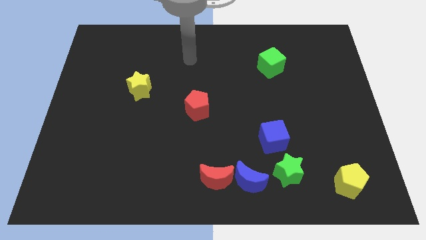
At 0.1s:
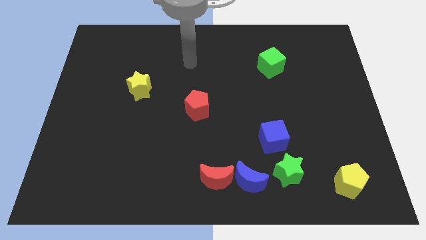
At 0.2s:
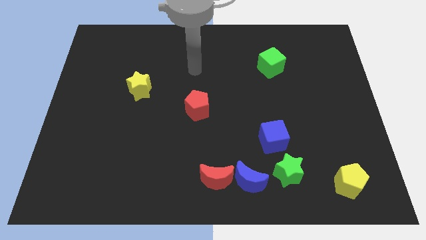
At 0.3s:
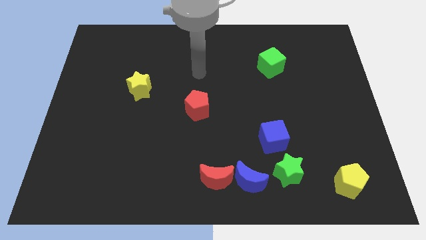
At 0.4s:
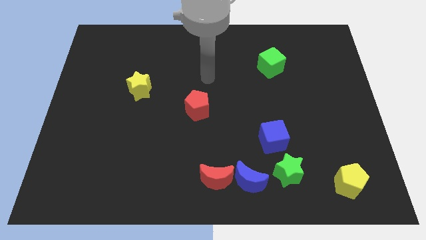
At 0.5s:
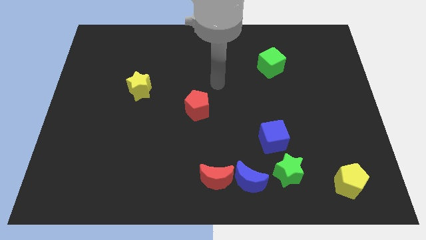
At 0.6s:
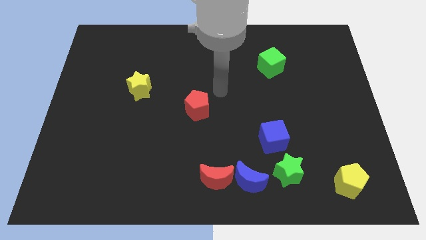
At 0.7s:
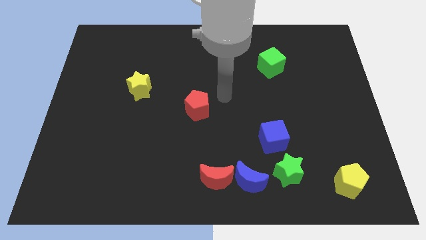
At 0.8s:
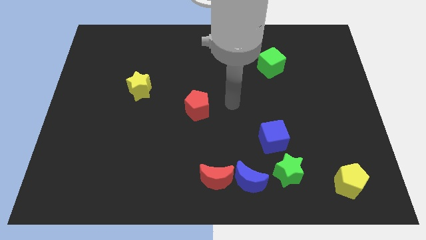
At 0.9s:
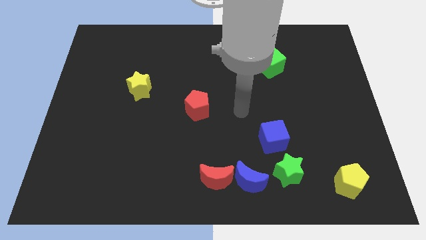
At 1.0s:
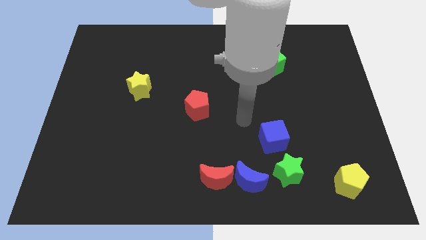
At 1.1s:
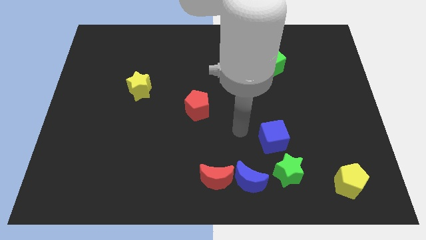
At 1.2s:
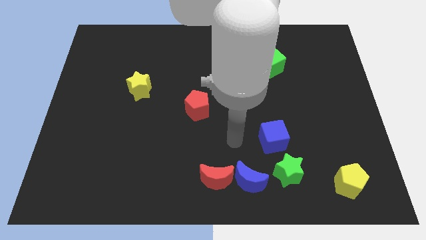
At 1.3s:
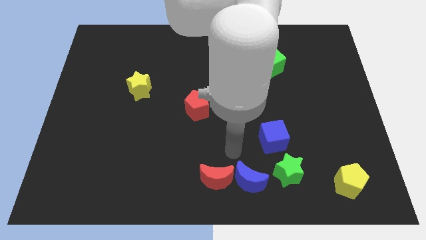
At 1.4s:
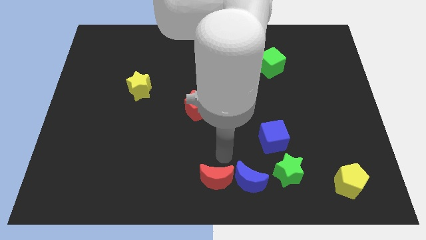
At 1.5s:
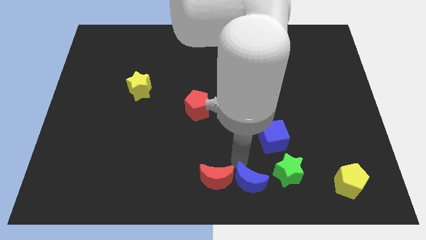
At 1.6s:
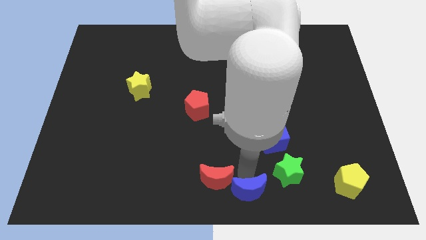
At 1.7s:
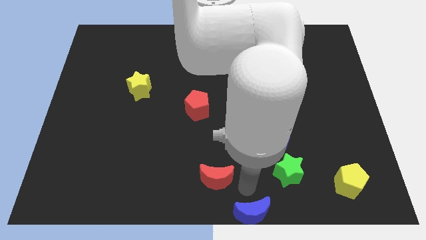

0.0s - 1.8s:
separate the red moon from the blue moon

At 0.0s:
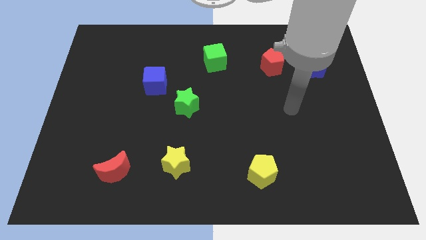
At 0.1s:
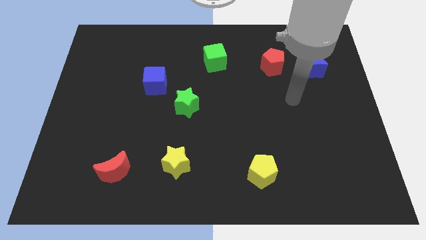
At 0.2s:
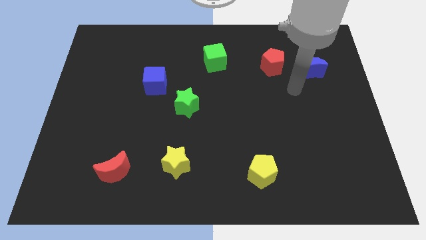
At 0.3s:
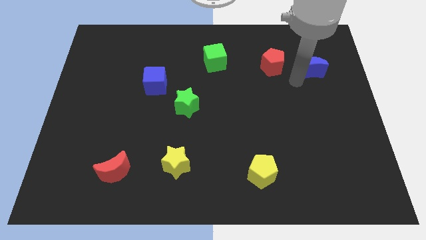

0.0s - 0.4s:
pull the red pentagon apart from the blue moon

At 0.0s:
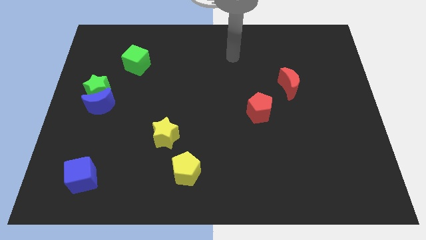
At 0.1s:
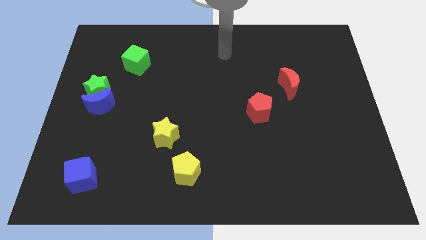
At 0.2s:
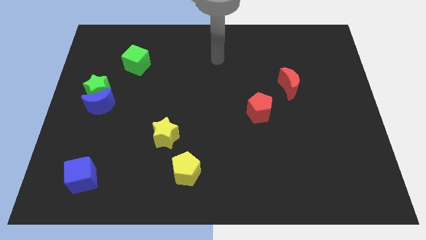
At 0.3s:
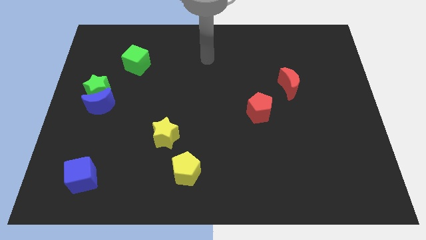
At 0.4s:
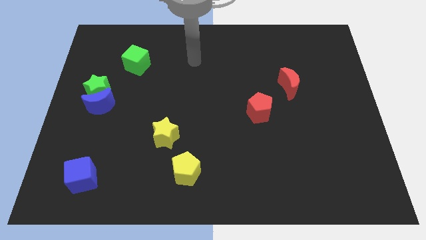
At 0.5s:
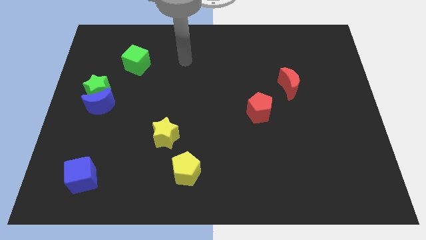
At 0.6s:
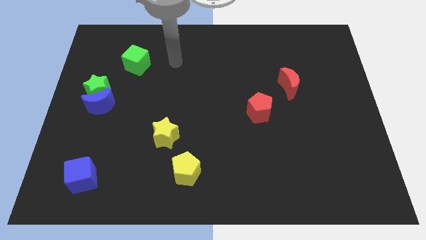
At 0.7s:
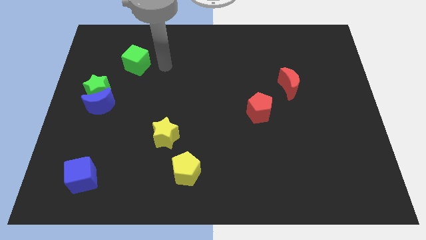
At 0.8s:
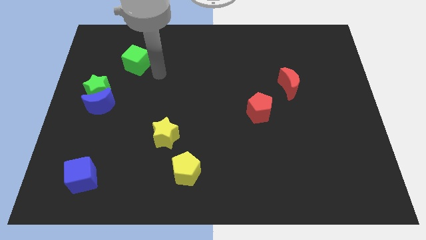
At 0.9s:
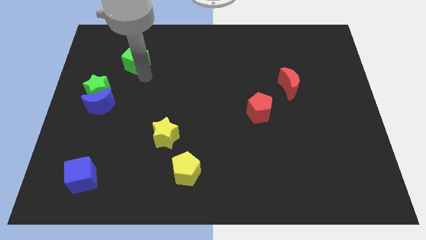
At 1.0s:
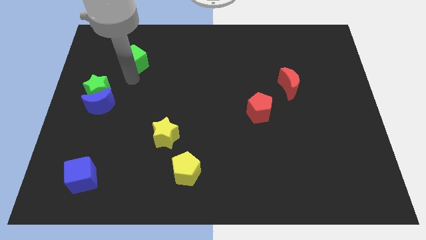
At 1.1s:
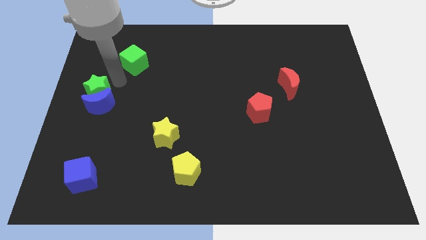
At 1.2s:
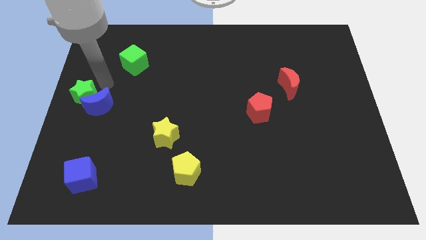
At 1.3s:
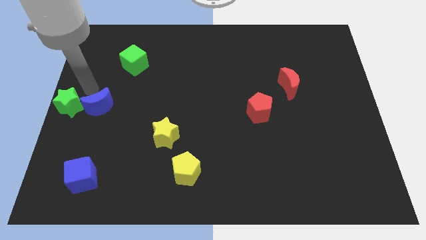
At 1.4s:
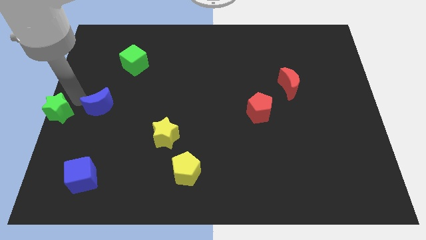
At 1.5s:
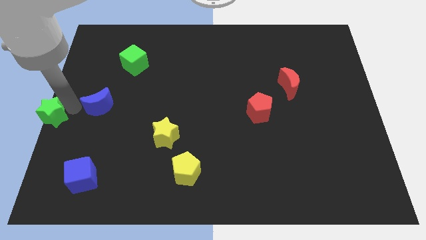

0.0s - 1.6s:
separate the blue moon from the green star

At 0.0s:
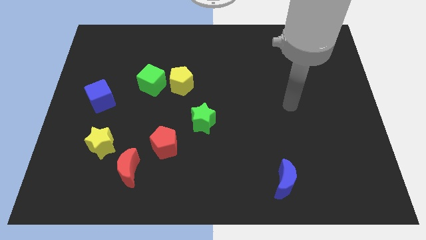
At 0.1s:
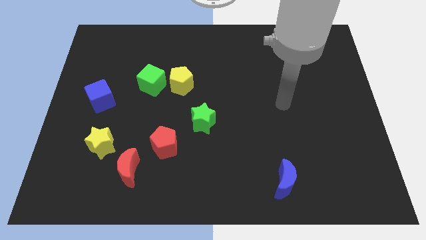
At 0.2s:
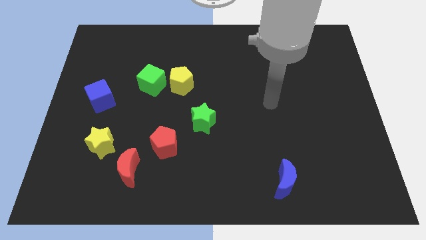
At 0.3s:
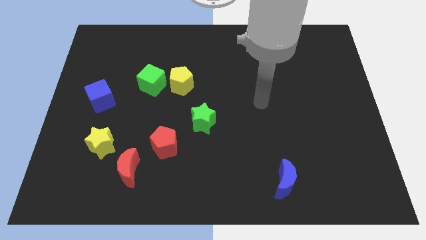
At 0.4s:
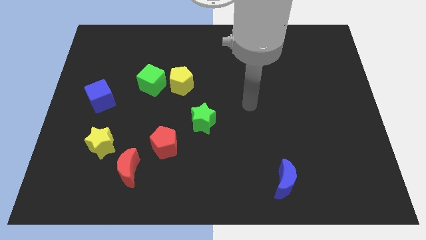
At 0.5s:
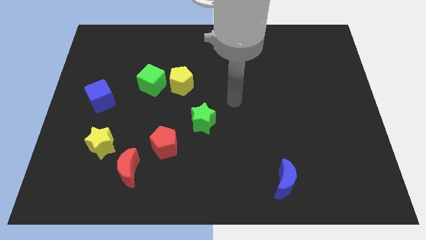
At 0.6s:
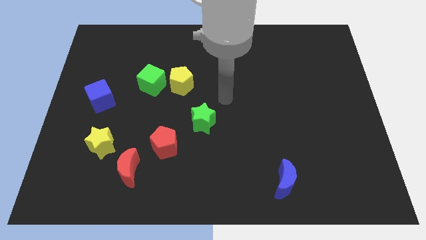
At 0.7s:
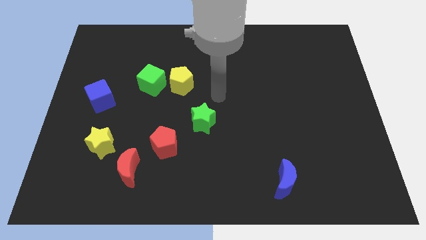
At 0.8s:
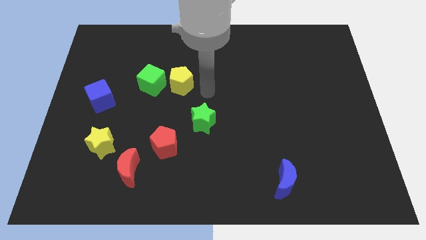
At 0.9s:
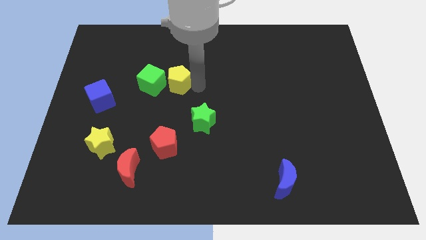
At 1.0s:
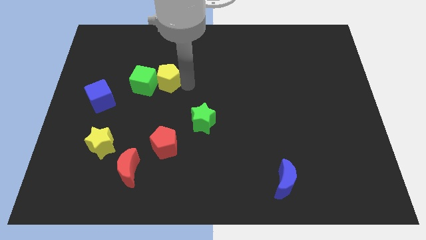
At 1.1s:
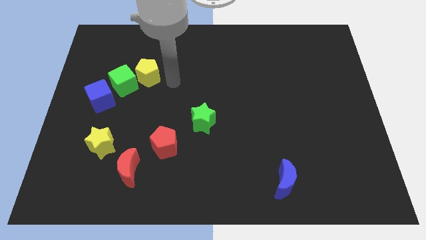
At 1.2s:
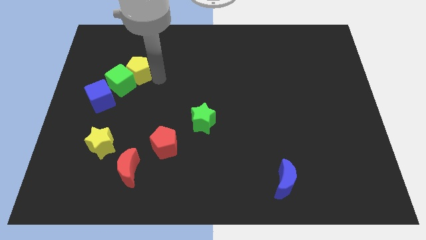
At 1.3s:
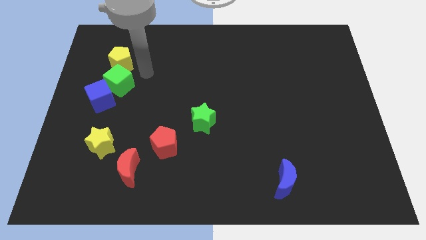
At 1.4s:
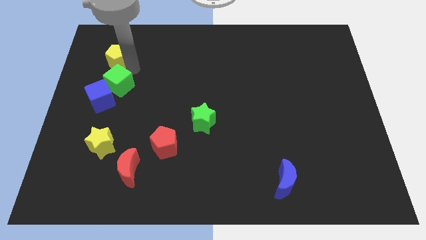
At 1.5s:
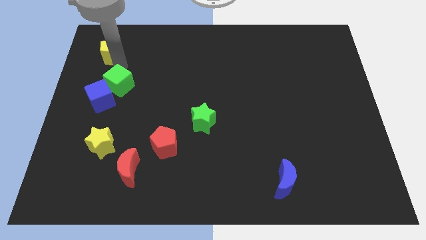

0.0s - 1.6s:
pull the green cube apart from the yellow pentagon

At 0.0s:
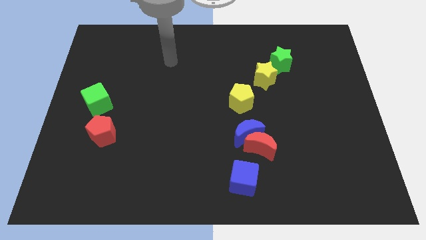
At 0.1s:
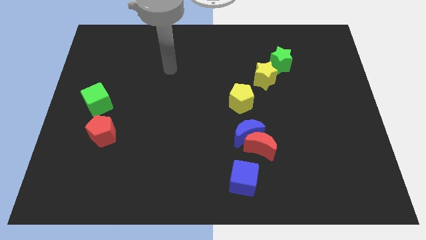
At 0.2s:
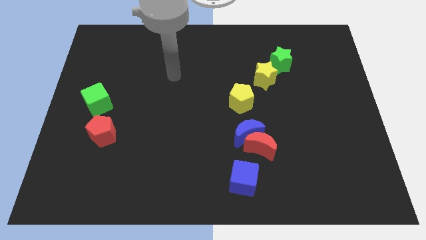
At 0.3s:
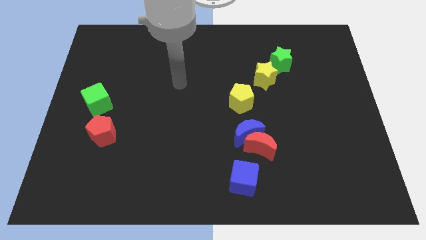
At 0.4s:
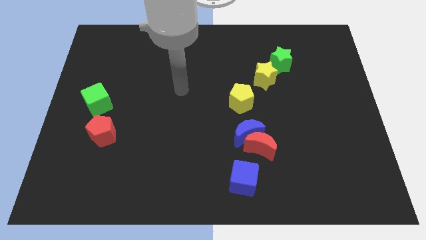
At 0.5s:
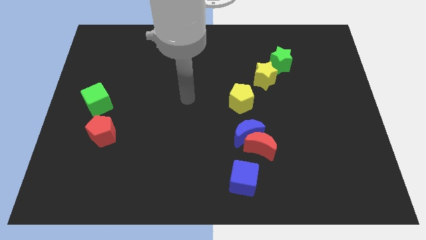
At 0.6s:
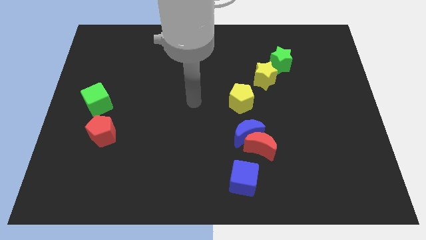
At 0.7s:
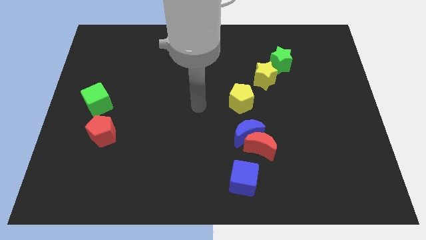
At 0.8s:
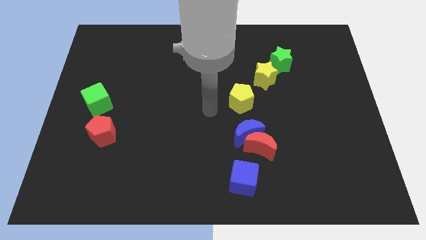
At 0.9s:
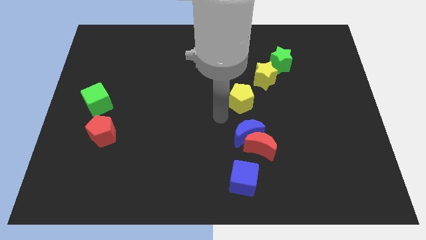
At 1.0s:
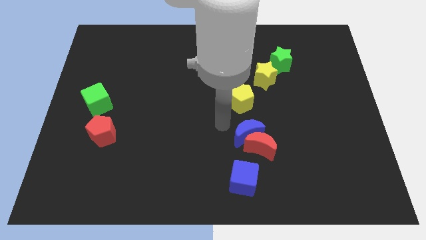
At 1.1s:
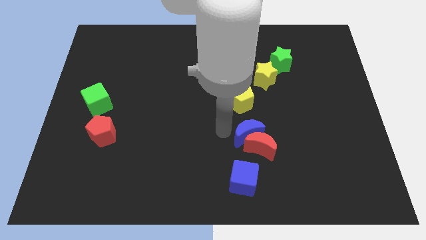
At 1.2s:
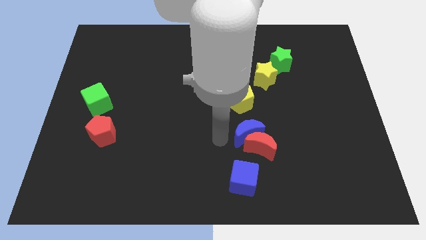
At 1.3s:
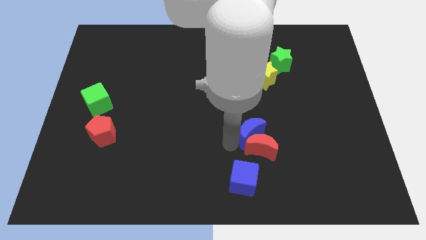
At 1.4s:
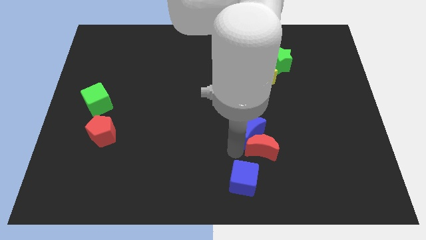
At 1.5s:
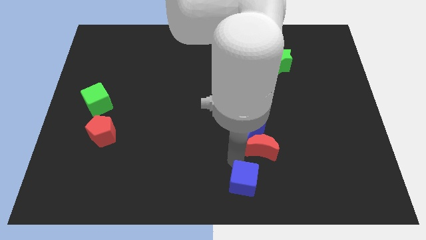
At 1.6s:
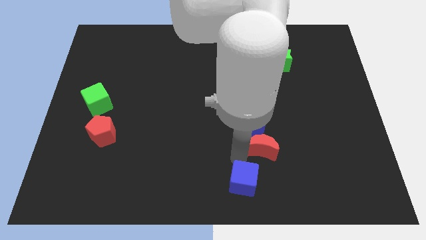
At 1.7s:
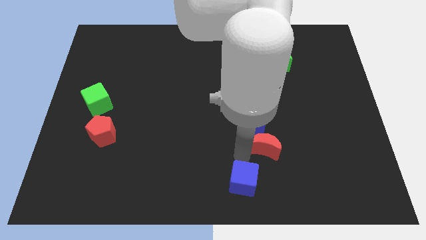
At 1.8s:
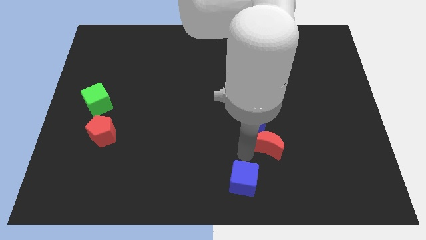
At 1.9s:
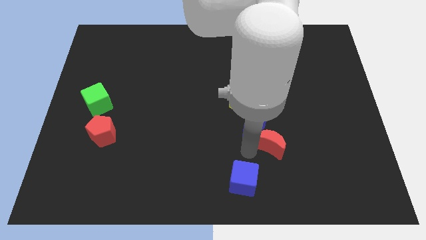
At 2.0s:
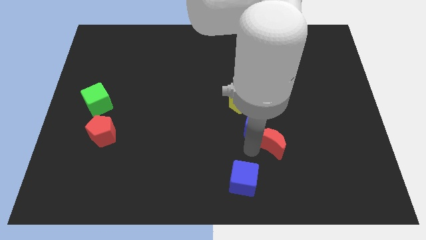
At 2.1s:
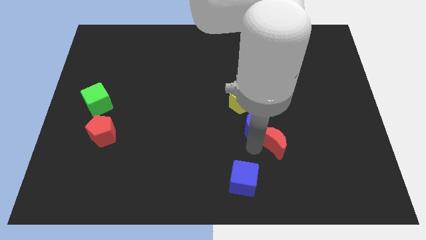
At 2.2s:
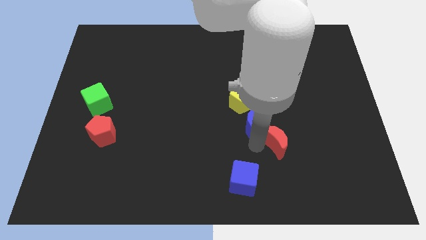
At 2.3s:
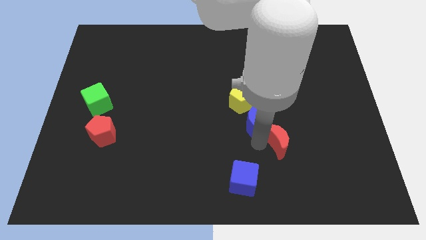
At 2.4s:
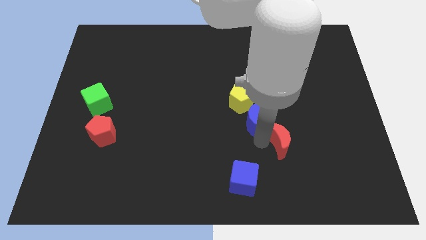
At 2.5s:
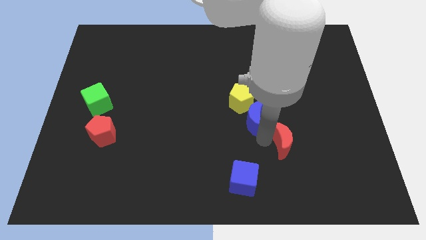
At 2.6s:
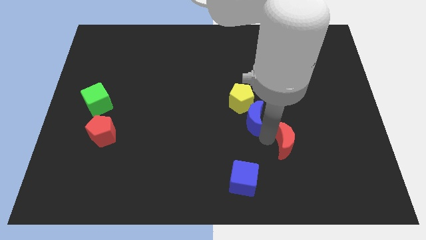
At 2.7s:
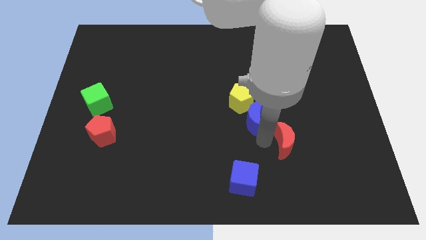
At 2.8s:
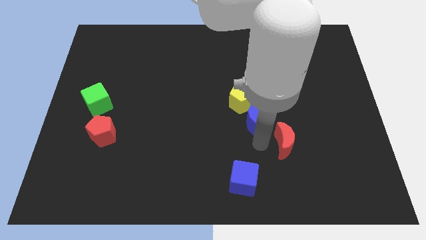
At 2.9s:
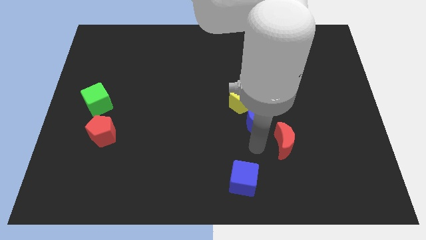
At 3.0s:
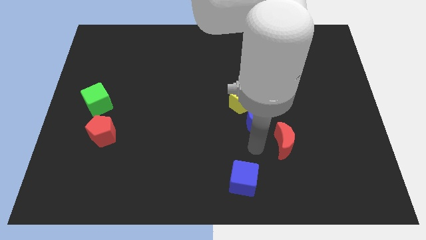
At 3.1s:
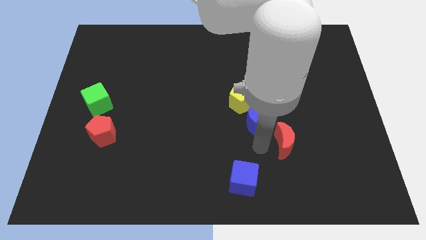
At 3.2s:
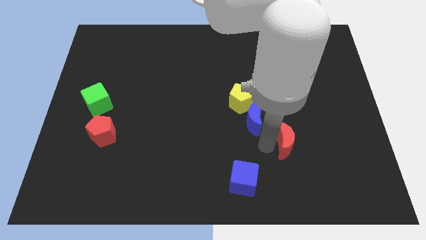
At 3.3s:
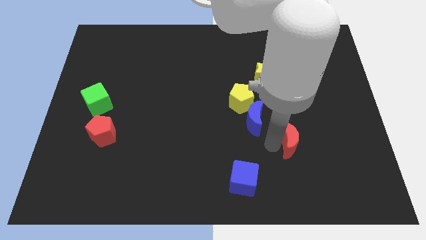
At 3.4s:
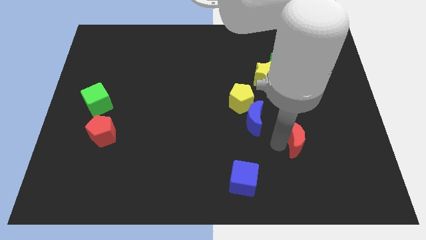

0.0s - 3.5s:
pull the red moon apart from the blue moon and blue cube

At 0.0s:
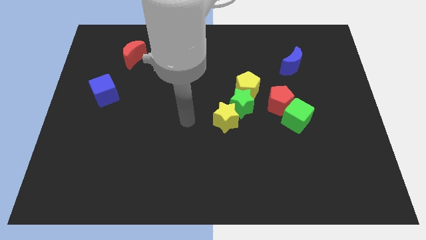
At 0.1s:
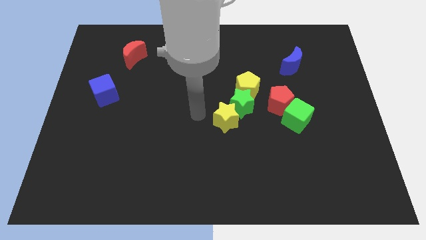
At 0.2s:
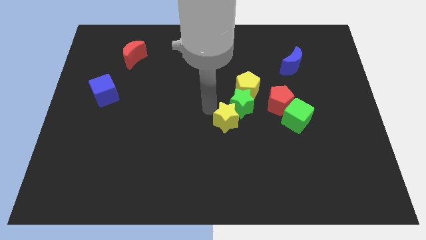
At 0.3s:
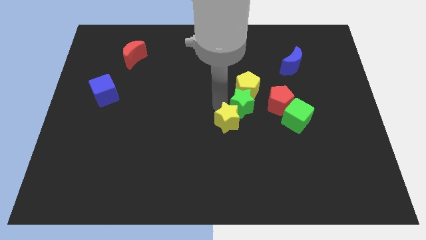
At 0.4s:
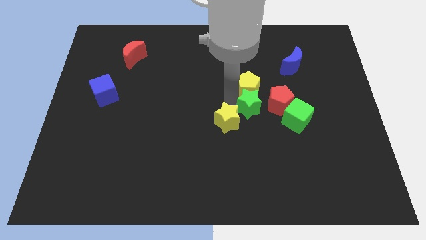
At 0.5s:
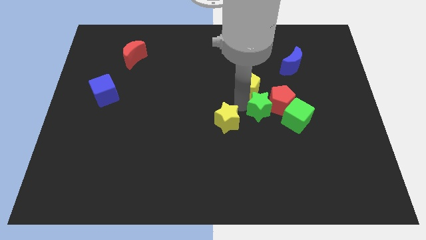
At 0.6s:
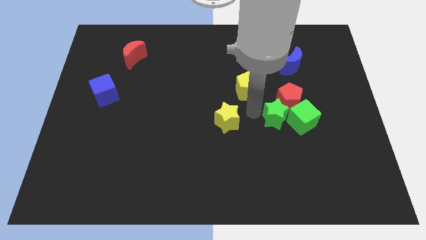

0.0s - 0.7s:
pull the yellow star apart from the green star
